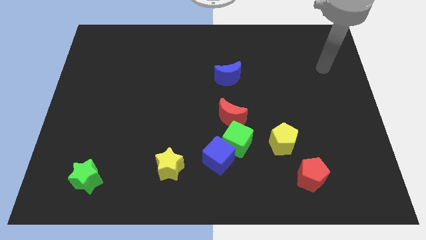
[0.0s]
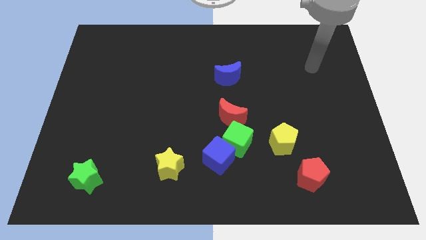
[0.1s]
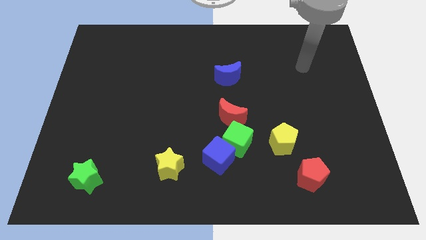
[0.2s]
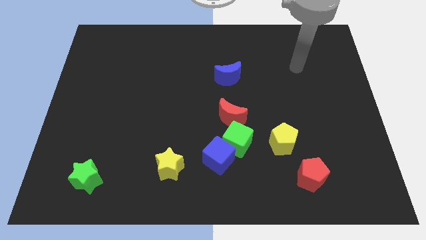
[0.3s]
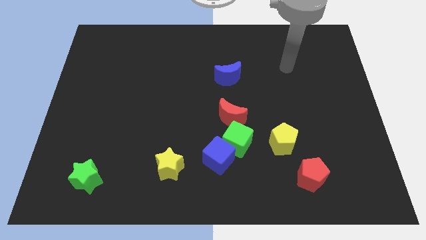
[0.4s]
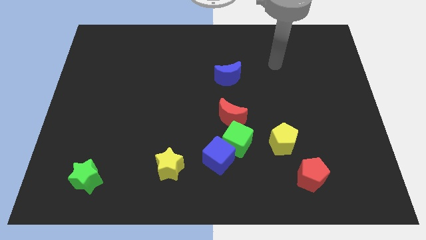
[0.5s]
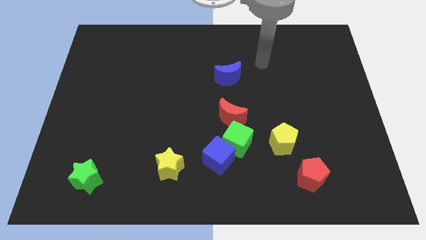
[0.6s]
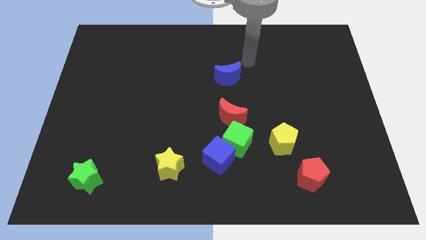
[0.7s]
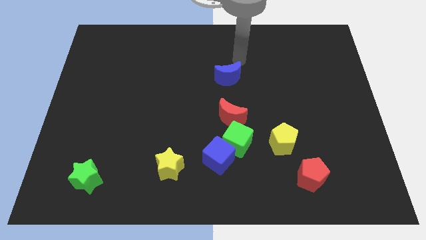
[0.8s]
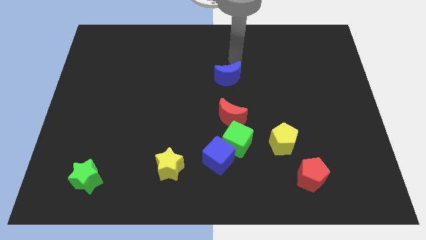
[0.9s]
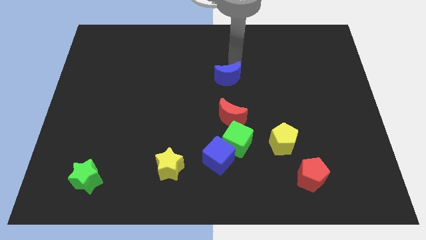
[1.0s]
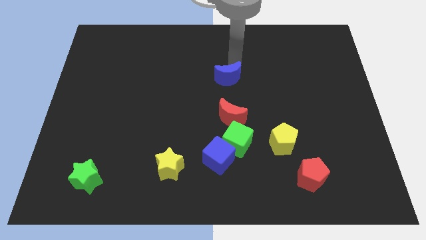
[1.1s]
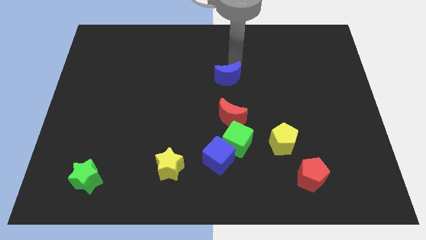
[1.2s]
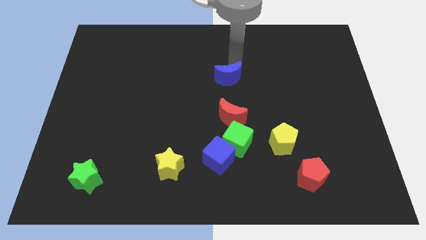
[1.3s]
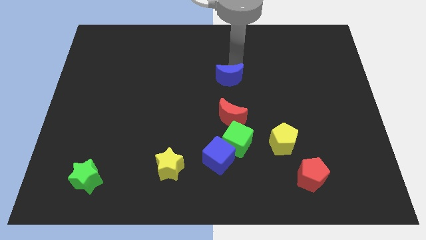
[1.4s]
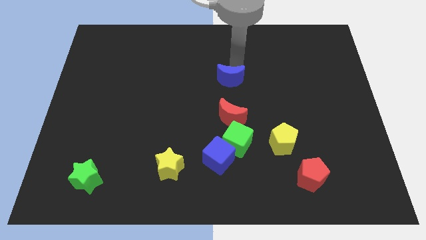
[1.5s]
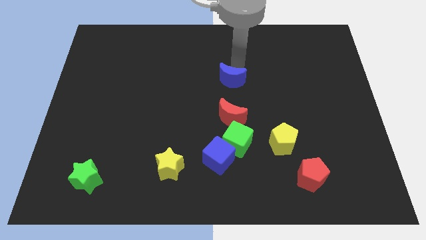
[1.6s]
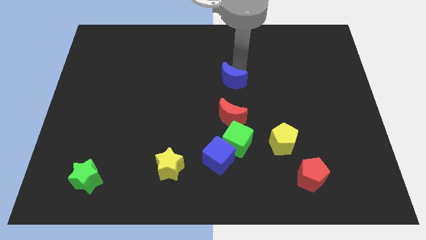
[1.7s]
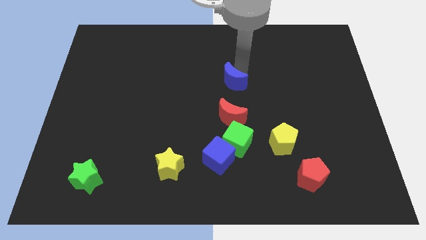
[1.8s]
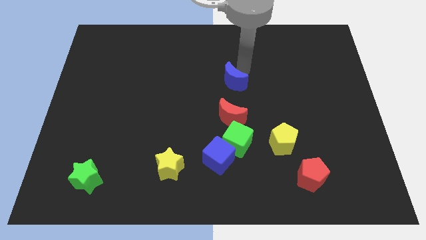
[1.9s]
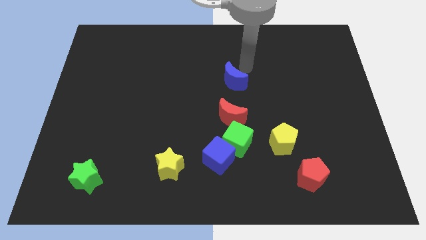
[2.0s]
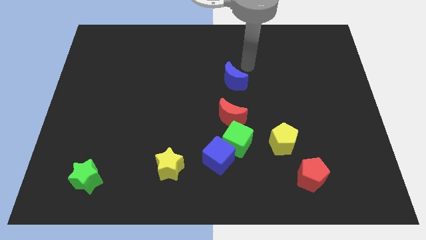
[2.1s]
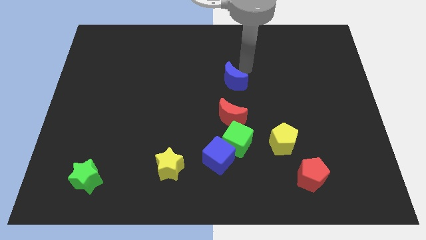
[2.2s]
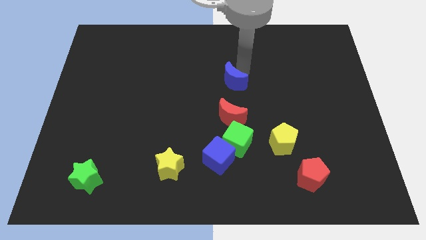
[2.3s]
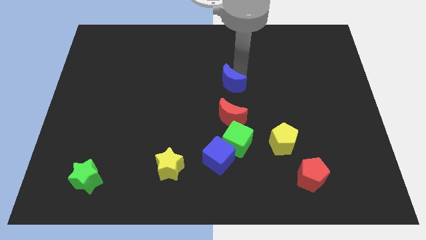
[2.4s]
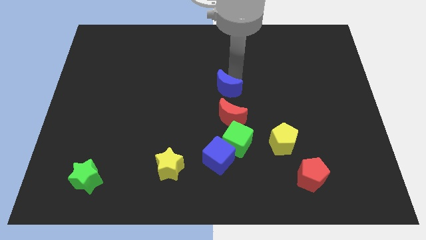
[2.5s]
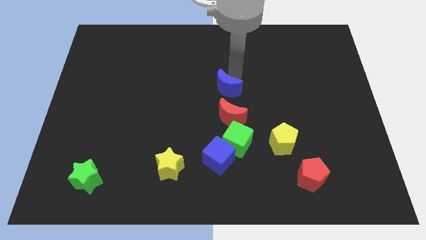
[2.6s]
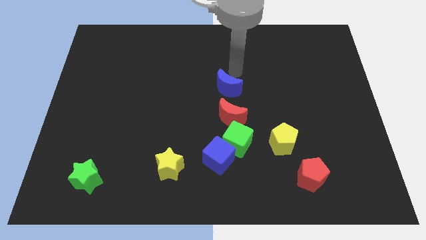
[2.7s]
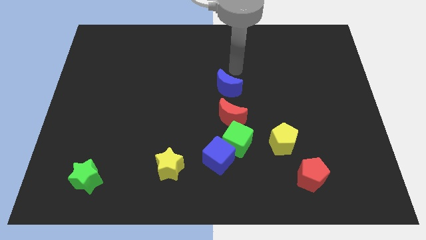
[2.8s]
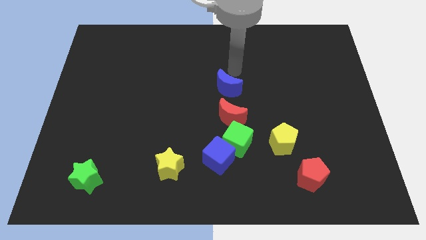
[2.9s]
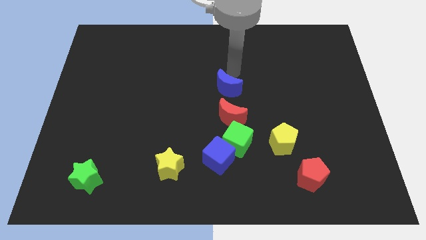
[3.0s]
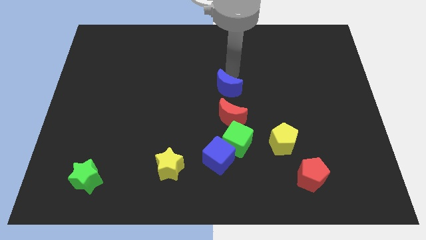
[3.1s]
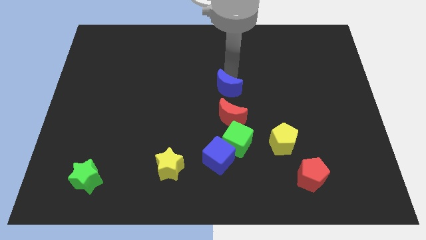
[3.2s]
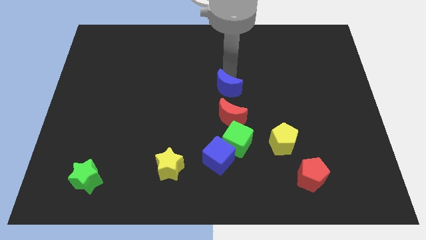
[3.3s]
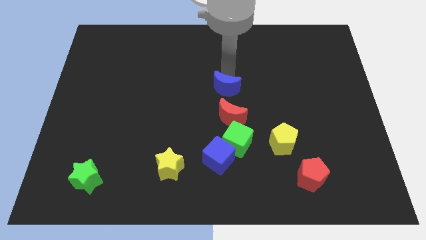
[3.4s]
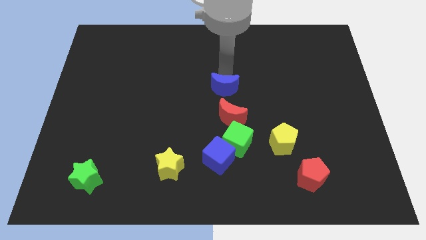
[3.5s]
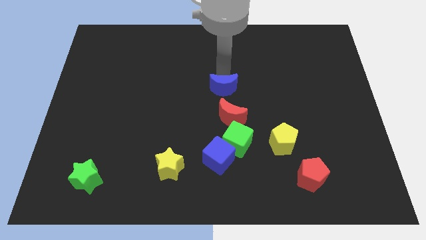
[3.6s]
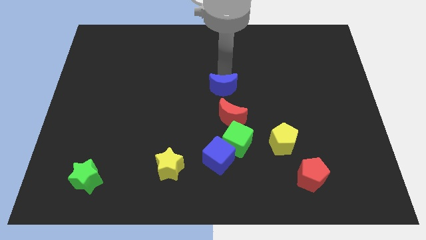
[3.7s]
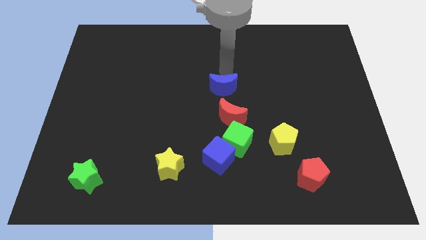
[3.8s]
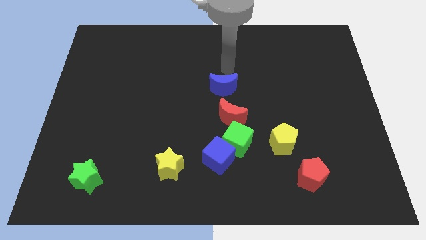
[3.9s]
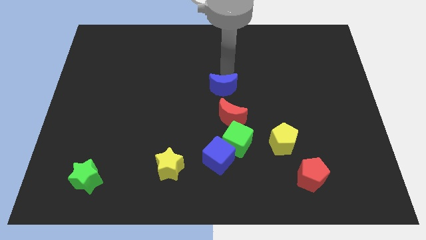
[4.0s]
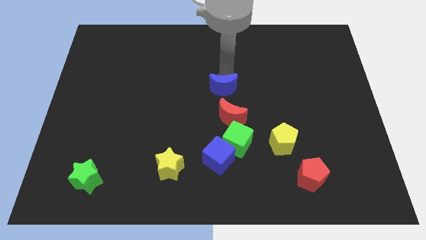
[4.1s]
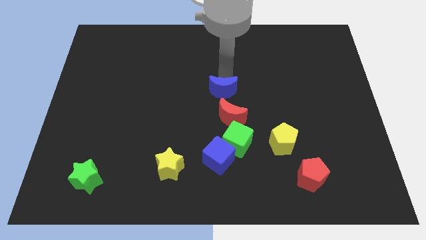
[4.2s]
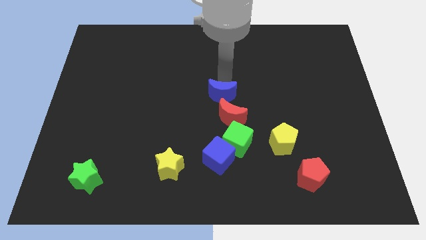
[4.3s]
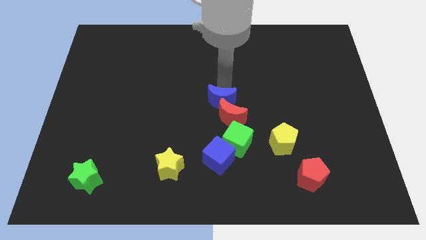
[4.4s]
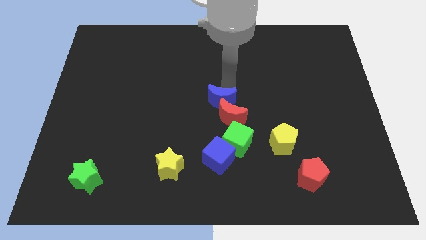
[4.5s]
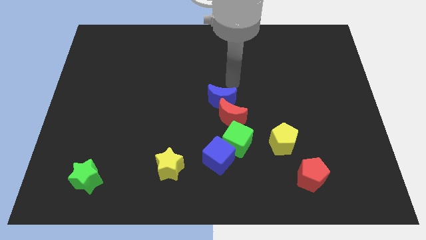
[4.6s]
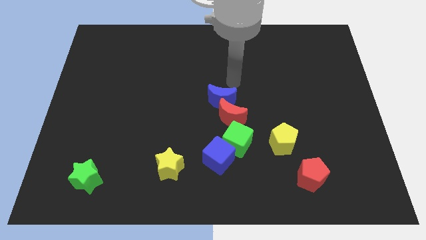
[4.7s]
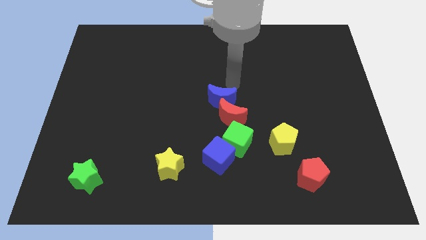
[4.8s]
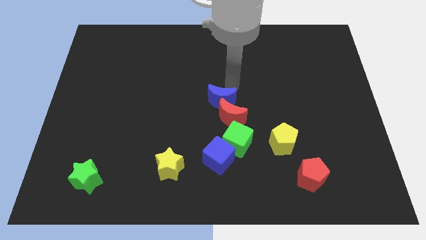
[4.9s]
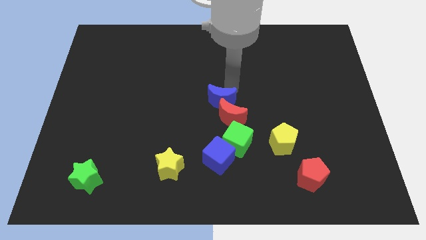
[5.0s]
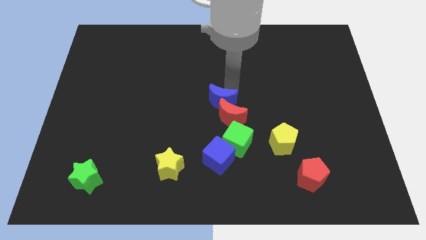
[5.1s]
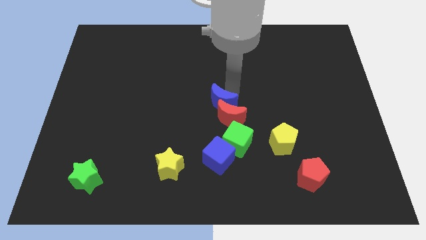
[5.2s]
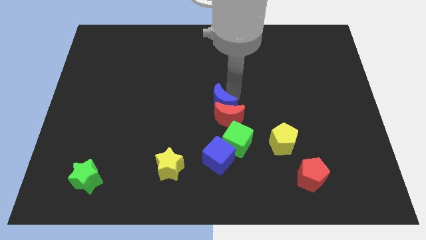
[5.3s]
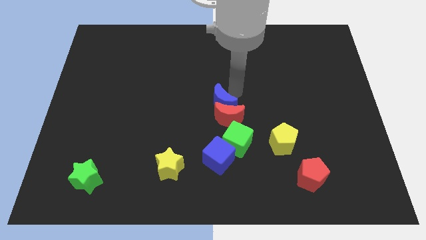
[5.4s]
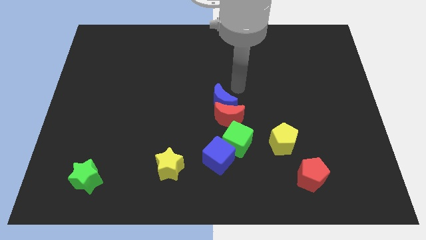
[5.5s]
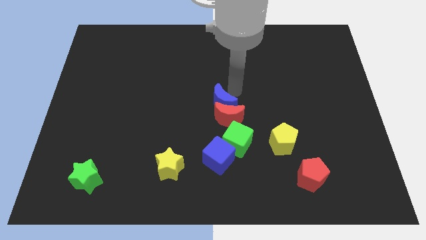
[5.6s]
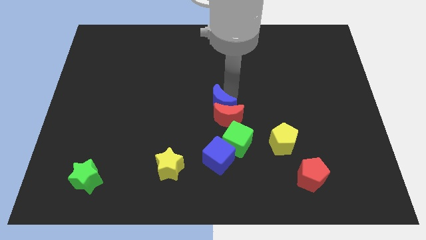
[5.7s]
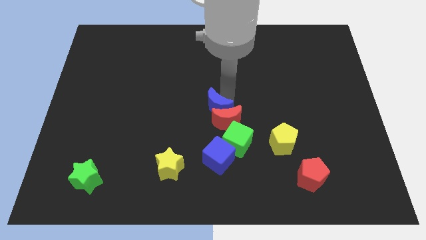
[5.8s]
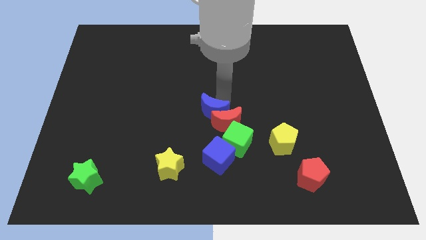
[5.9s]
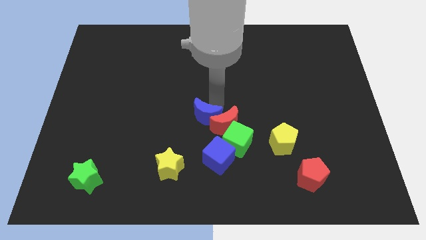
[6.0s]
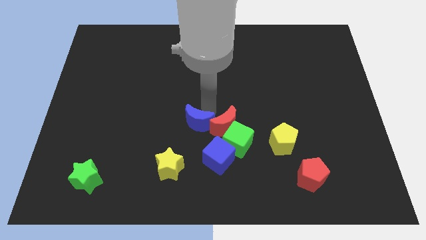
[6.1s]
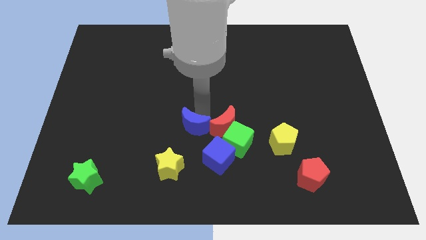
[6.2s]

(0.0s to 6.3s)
move the blue moon to the top right side of the yellow star

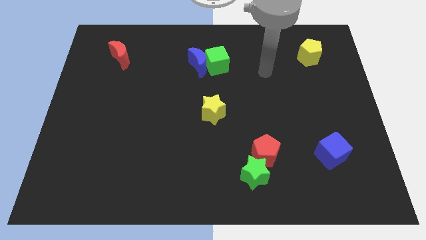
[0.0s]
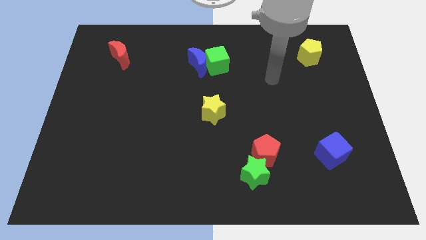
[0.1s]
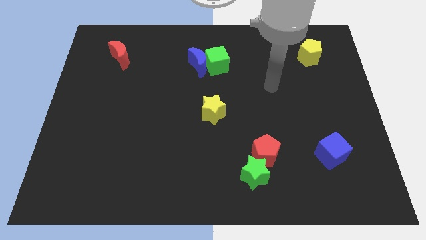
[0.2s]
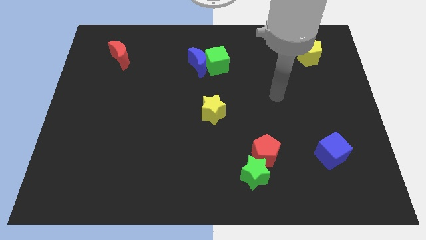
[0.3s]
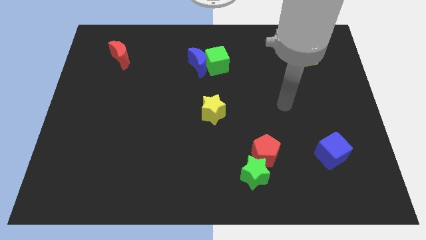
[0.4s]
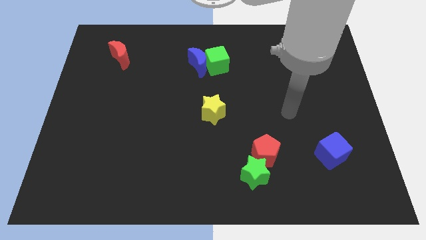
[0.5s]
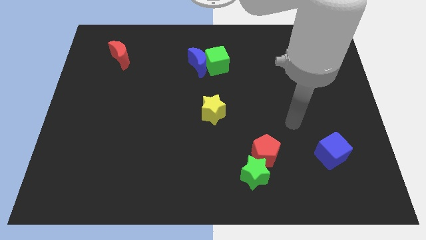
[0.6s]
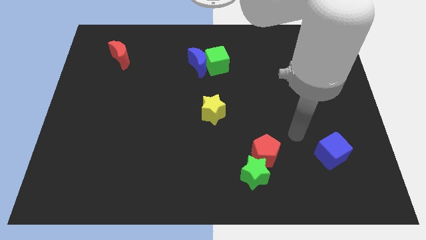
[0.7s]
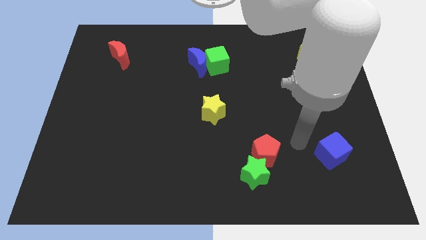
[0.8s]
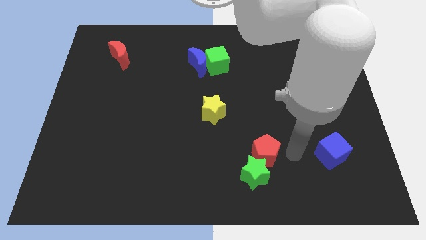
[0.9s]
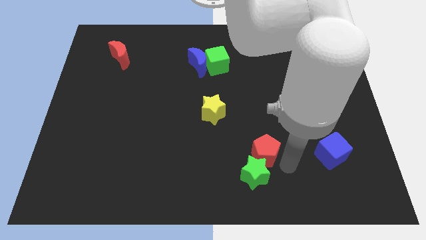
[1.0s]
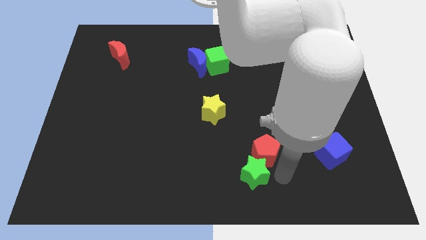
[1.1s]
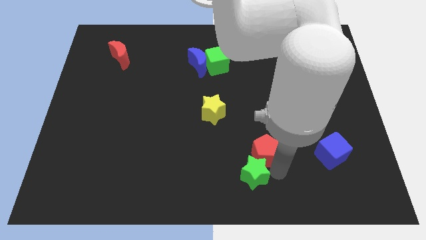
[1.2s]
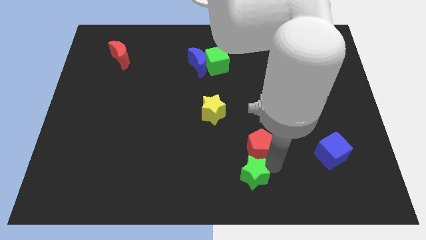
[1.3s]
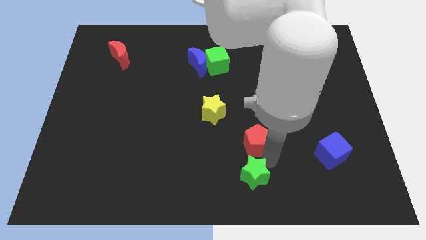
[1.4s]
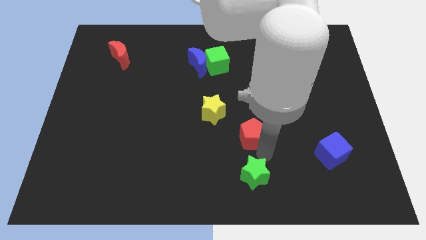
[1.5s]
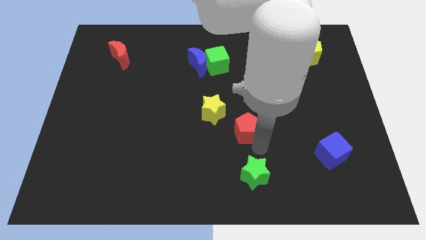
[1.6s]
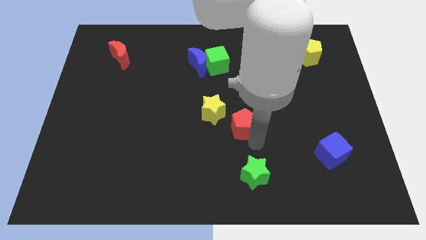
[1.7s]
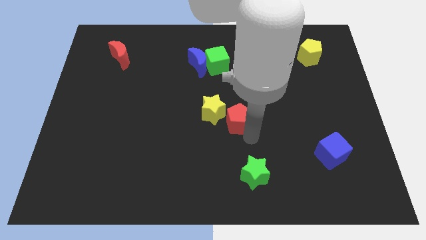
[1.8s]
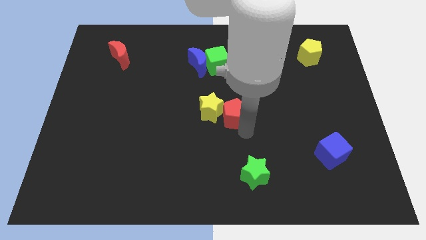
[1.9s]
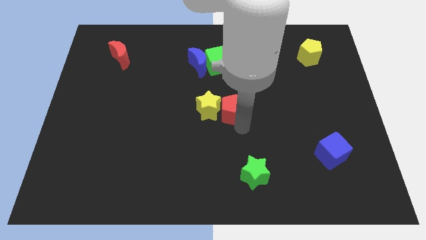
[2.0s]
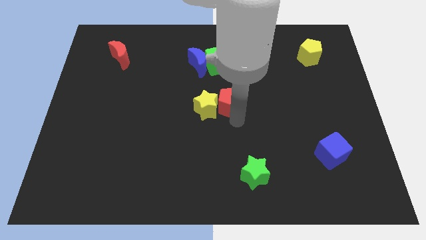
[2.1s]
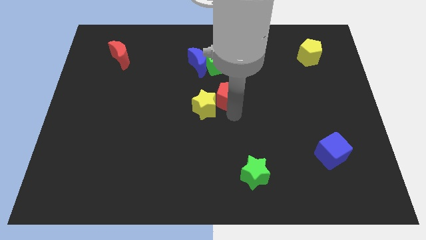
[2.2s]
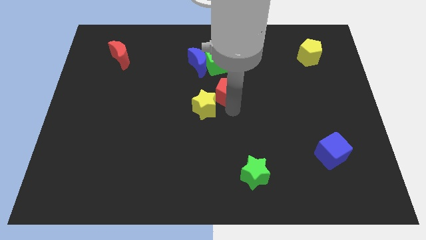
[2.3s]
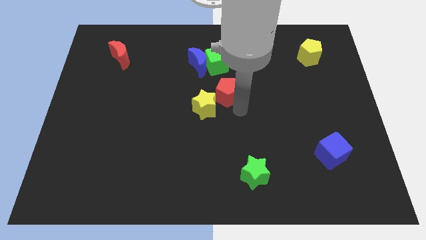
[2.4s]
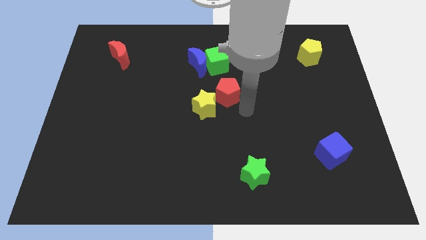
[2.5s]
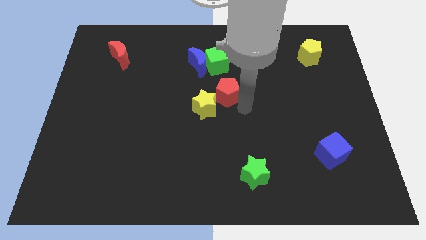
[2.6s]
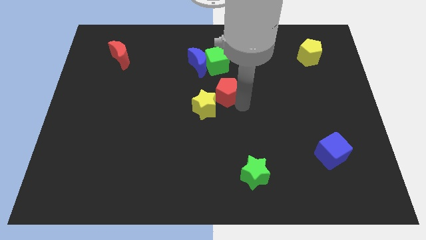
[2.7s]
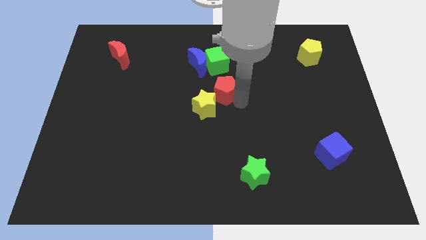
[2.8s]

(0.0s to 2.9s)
slide the red pentagon above the yellow star
